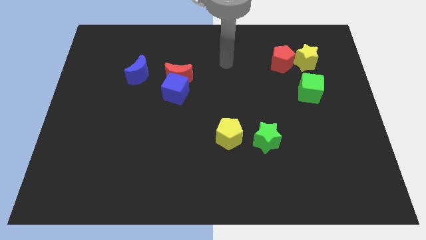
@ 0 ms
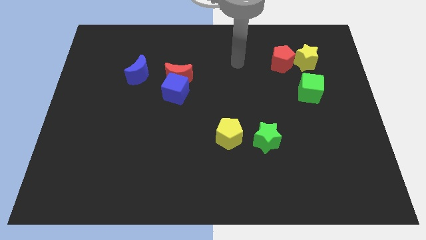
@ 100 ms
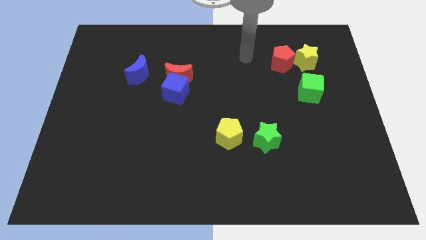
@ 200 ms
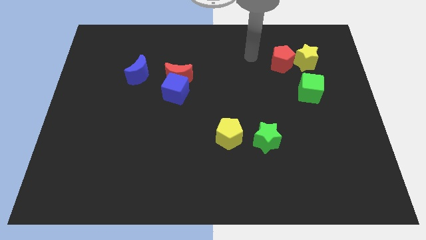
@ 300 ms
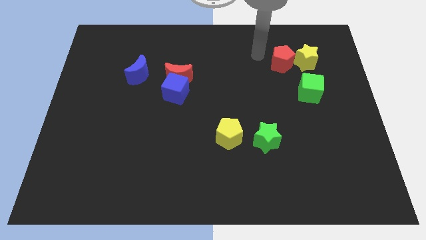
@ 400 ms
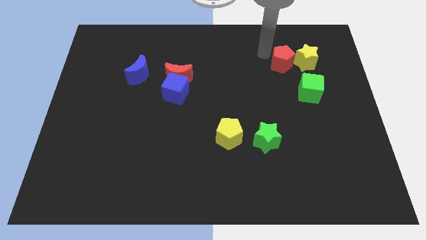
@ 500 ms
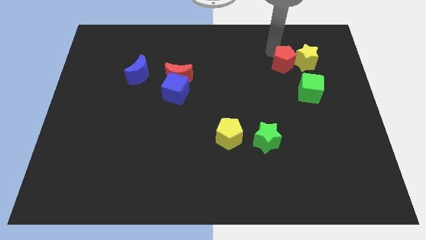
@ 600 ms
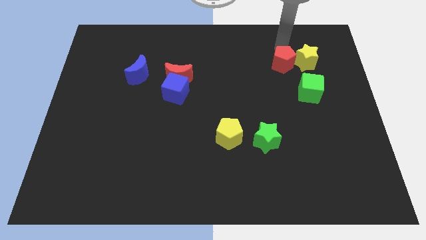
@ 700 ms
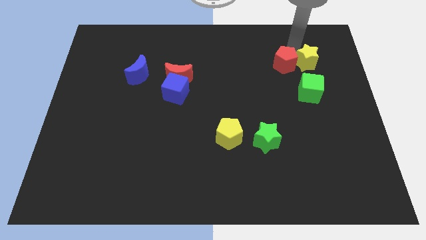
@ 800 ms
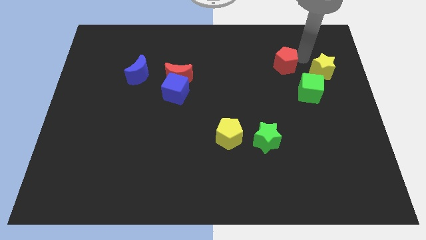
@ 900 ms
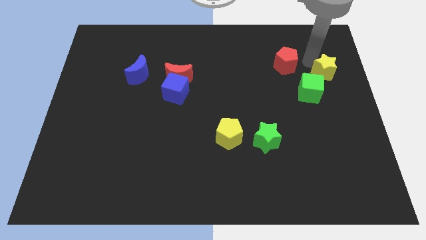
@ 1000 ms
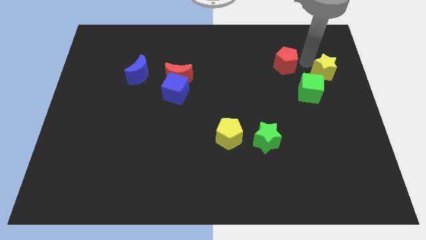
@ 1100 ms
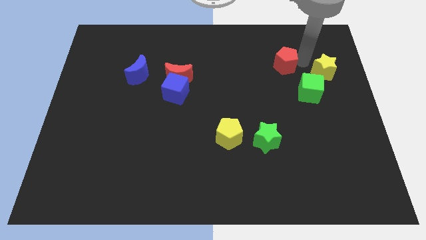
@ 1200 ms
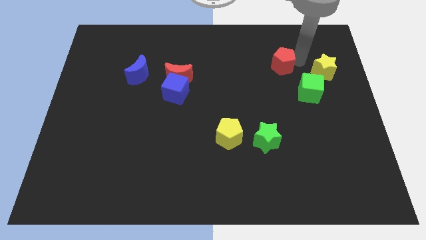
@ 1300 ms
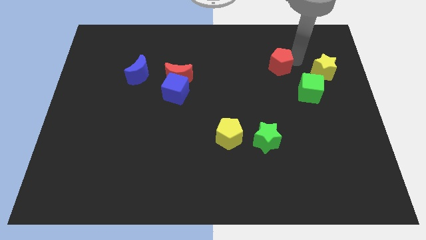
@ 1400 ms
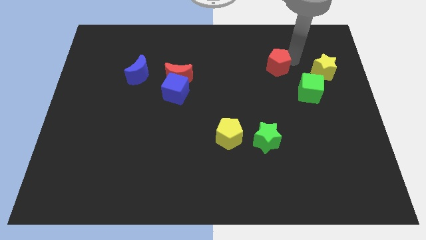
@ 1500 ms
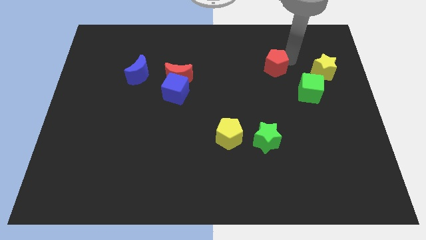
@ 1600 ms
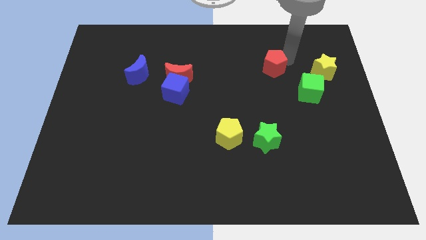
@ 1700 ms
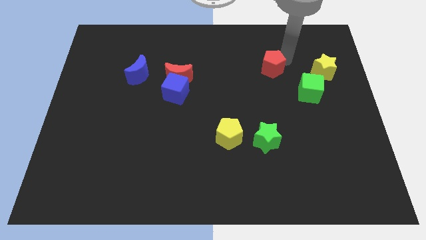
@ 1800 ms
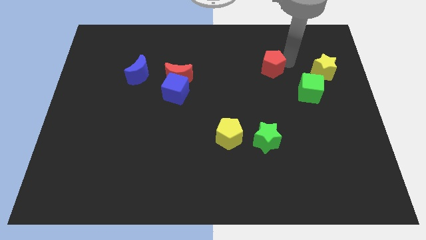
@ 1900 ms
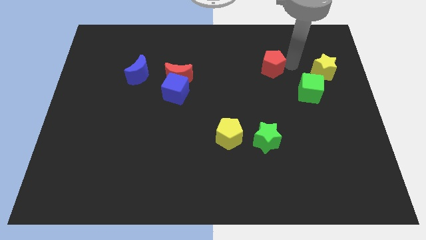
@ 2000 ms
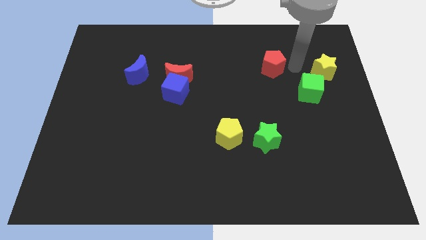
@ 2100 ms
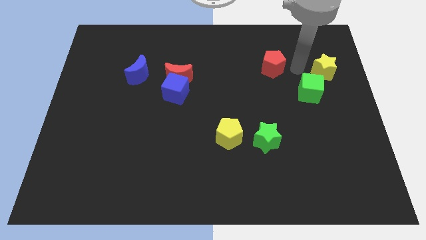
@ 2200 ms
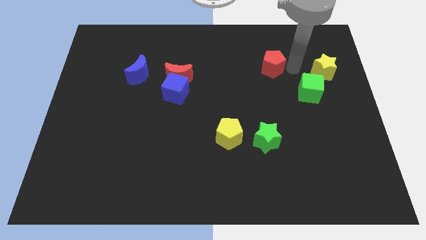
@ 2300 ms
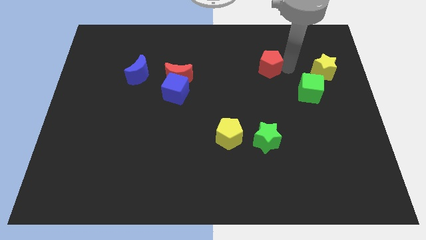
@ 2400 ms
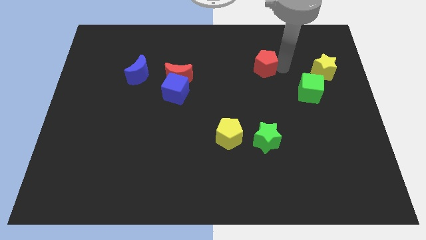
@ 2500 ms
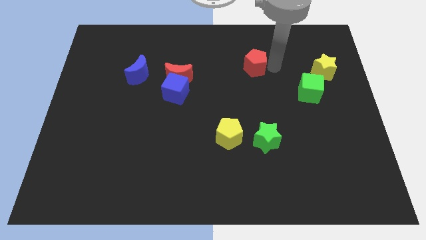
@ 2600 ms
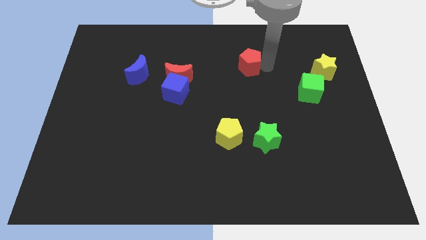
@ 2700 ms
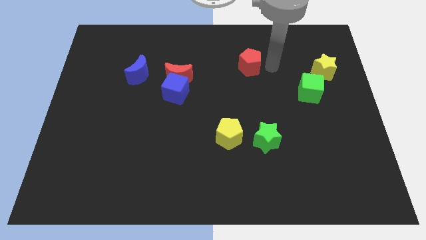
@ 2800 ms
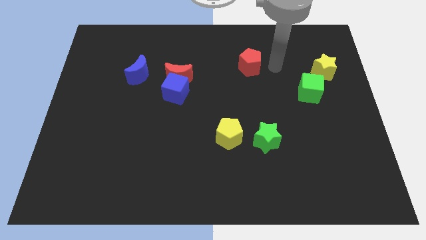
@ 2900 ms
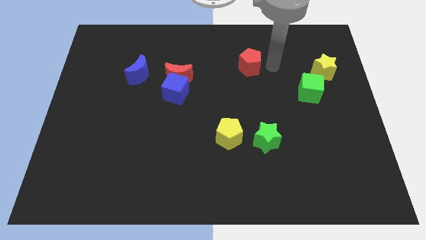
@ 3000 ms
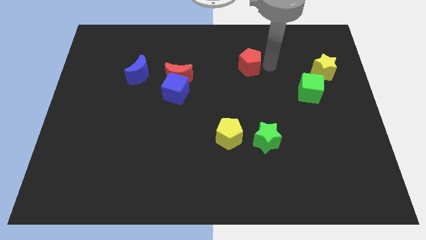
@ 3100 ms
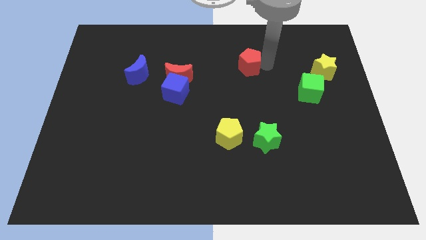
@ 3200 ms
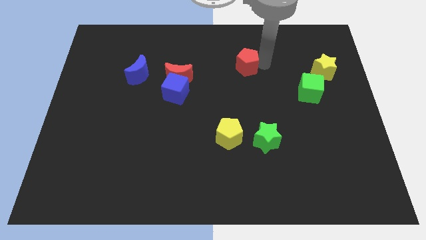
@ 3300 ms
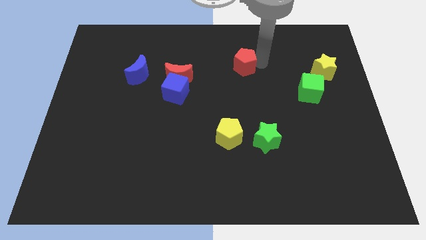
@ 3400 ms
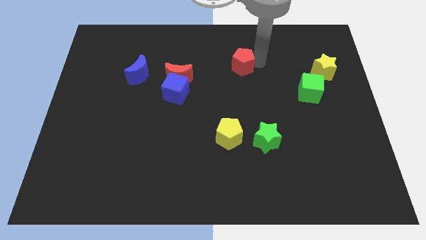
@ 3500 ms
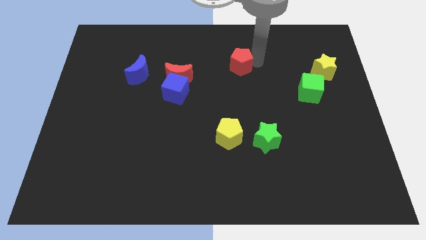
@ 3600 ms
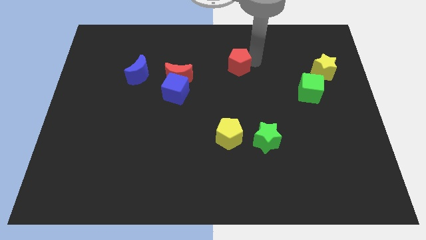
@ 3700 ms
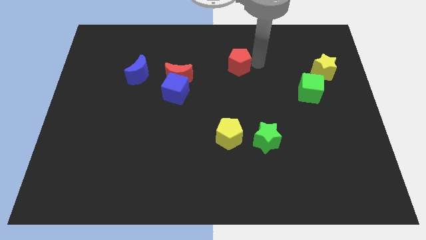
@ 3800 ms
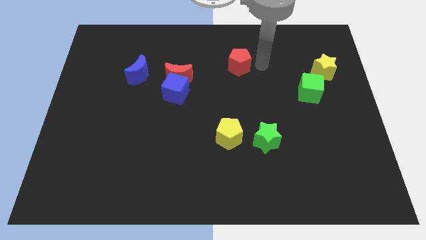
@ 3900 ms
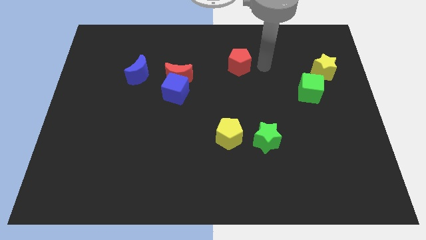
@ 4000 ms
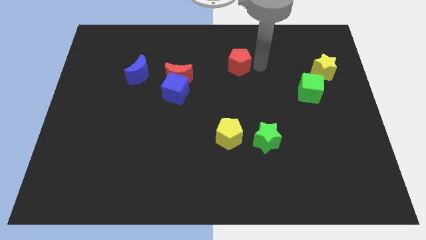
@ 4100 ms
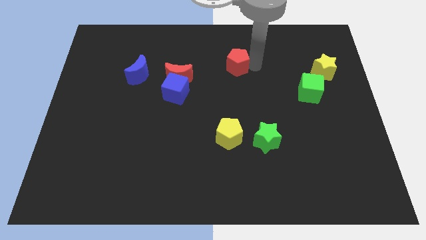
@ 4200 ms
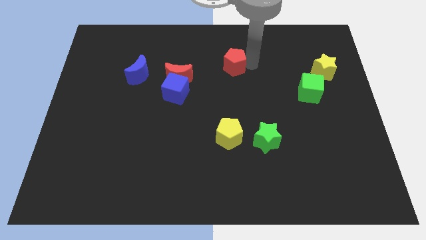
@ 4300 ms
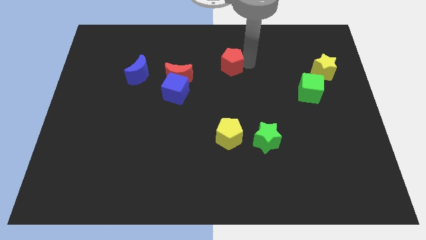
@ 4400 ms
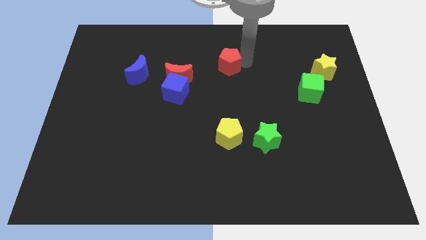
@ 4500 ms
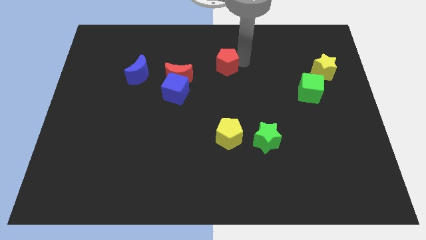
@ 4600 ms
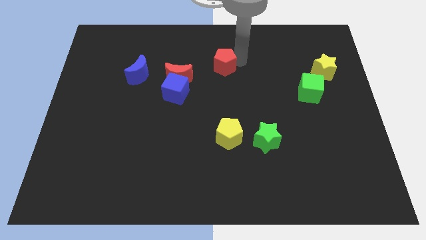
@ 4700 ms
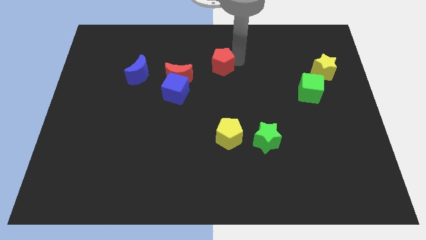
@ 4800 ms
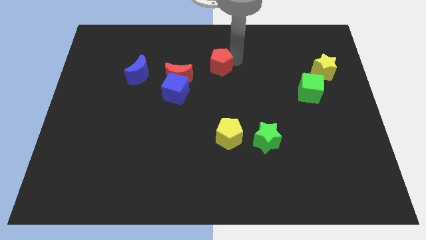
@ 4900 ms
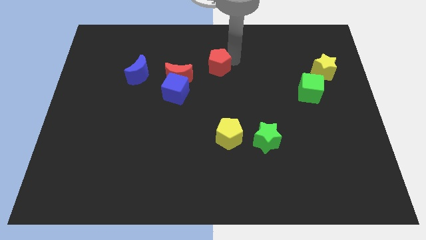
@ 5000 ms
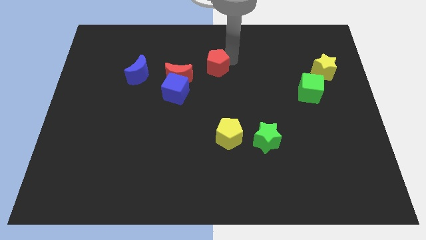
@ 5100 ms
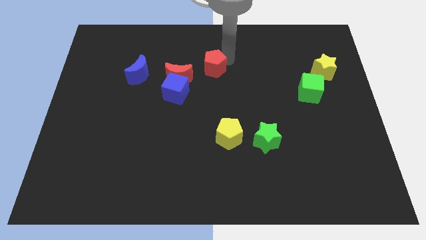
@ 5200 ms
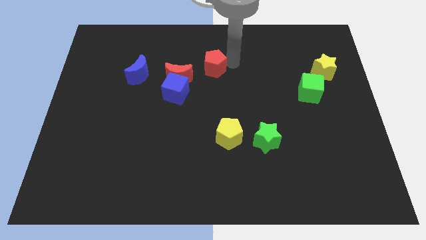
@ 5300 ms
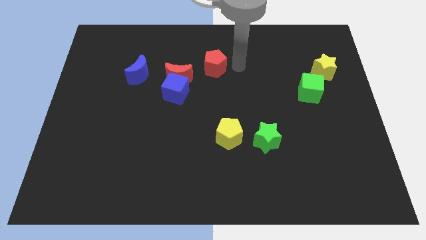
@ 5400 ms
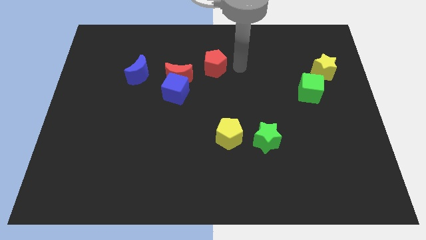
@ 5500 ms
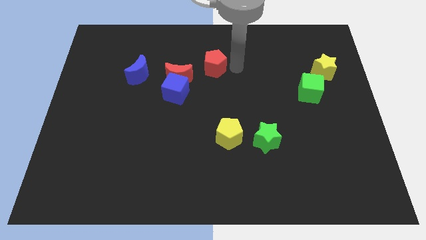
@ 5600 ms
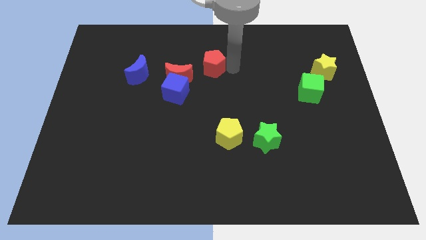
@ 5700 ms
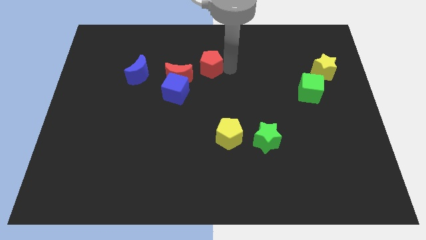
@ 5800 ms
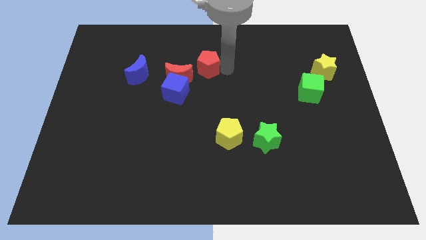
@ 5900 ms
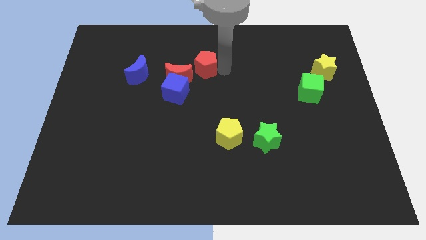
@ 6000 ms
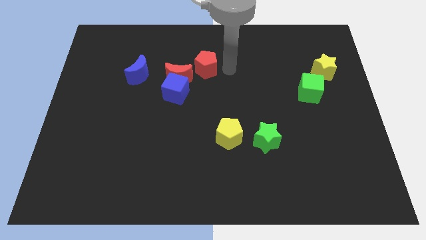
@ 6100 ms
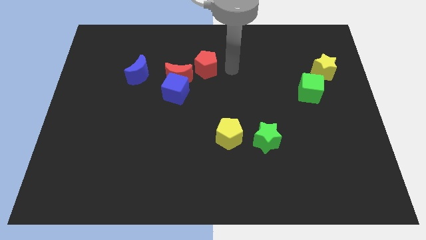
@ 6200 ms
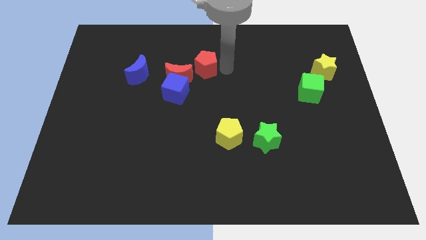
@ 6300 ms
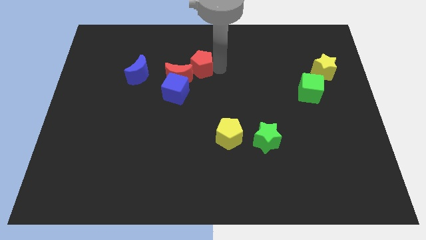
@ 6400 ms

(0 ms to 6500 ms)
push the red pentagon to the left

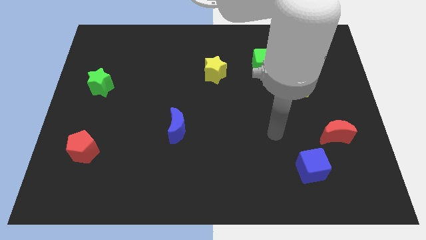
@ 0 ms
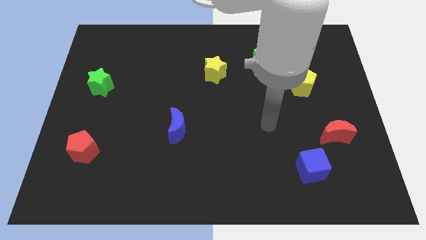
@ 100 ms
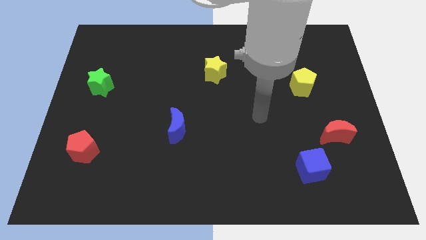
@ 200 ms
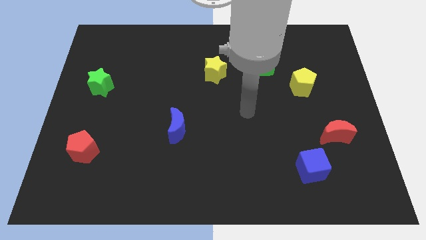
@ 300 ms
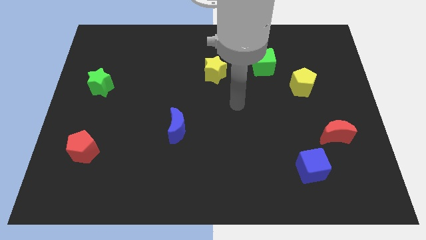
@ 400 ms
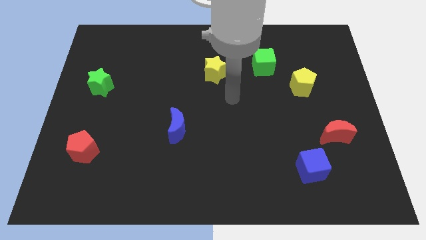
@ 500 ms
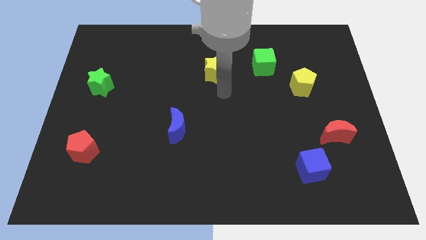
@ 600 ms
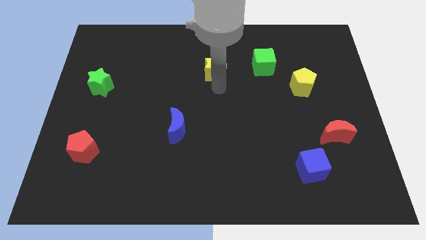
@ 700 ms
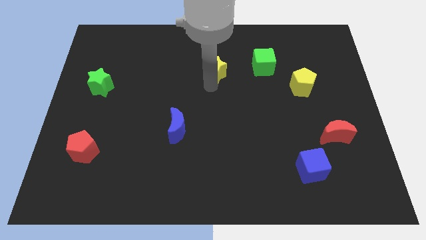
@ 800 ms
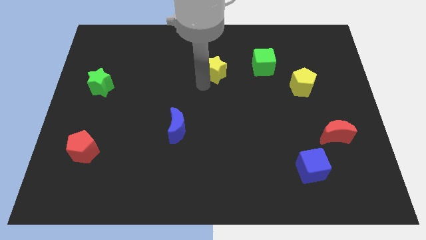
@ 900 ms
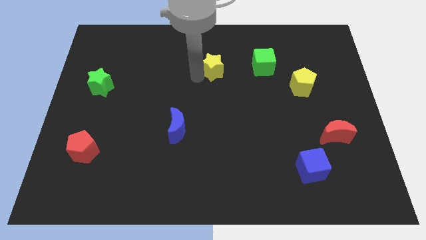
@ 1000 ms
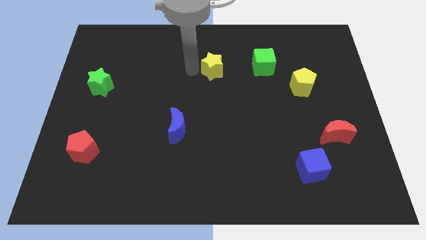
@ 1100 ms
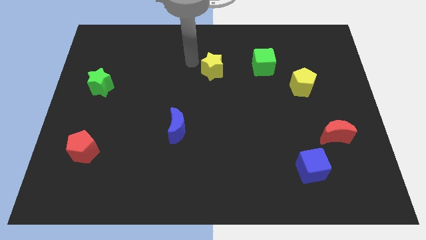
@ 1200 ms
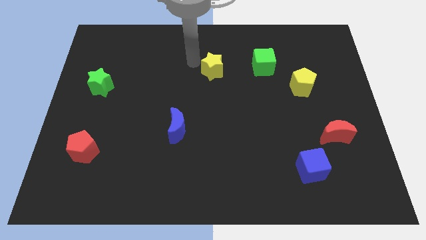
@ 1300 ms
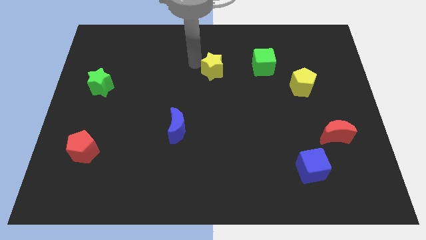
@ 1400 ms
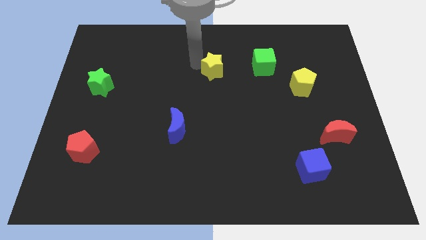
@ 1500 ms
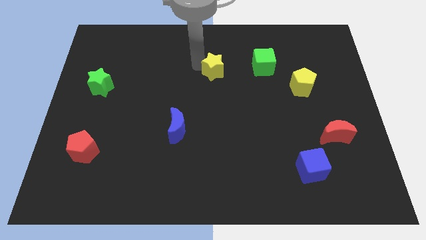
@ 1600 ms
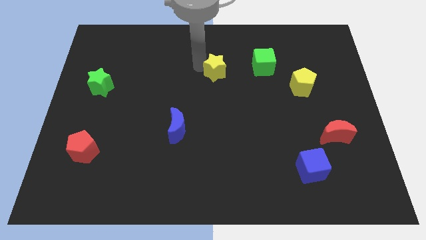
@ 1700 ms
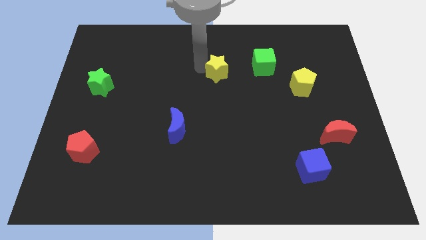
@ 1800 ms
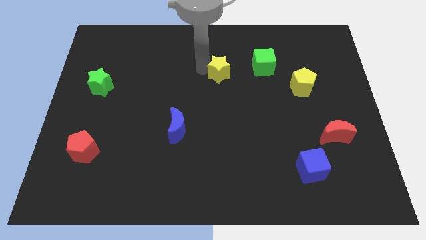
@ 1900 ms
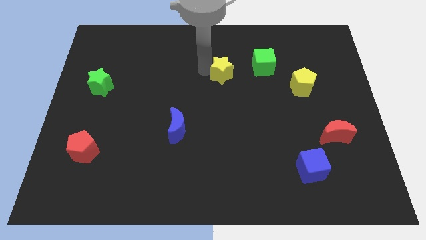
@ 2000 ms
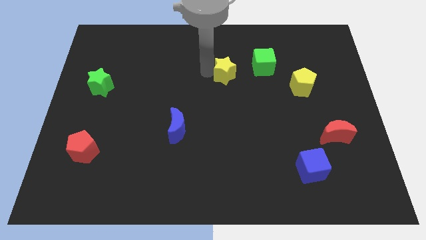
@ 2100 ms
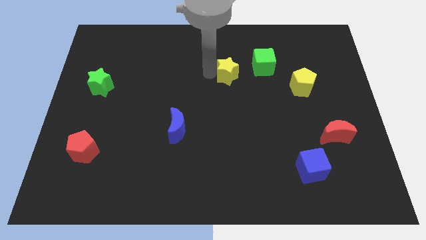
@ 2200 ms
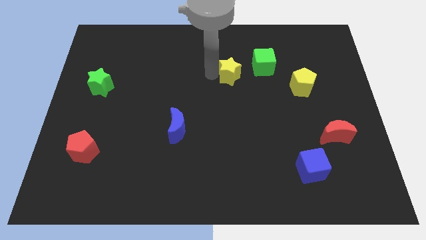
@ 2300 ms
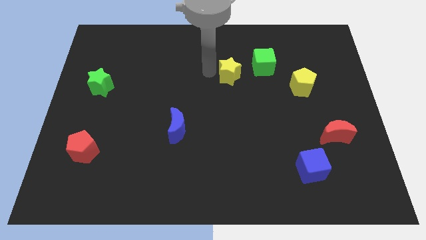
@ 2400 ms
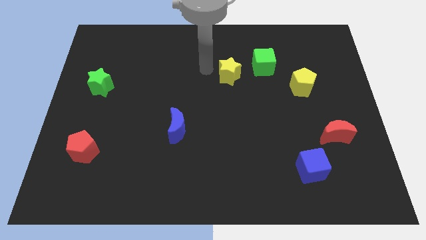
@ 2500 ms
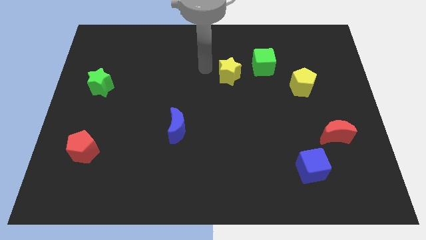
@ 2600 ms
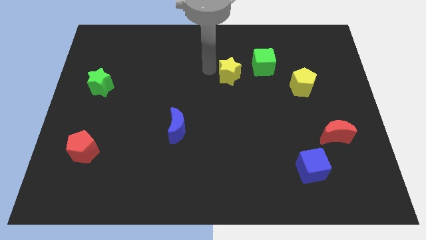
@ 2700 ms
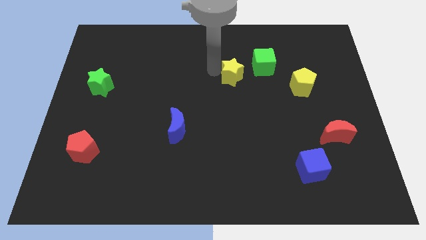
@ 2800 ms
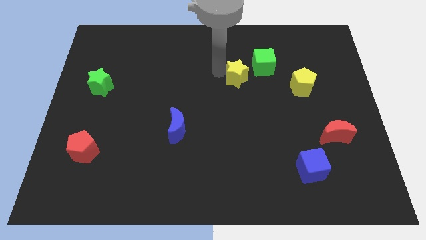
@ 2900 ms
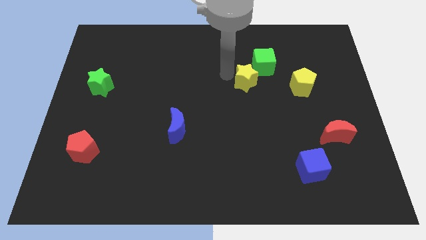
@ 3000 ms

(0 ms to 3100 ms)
slightly push the yellow star right
